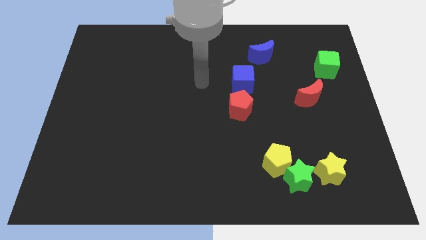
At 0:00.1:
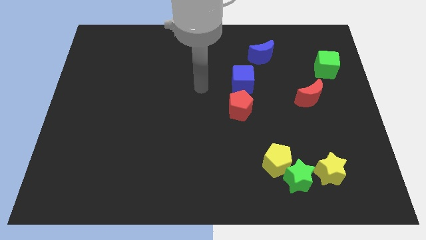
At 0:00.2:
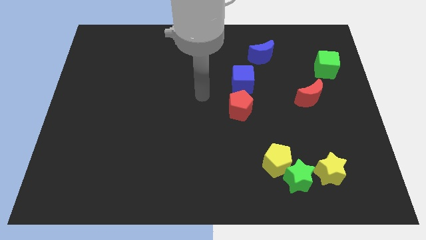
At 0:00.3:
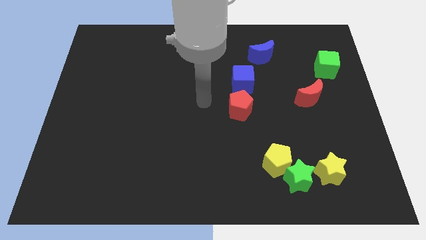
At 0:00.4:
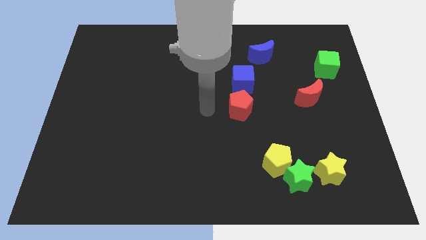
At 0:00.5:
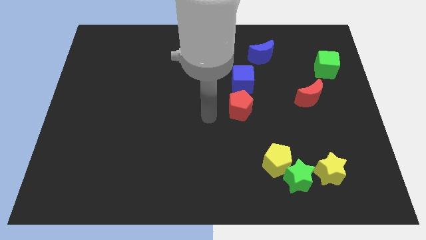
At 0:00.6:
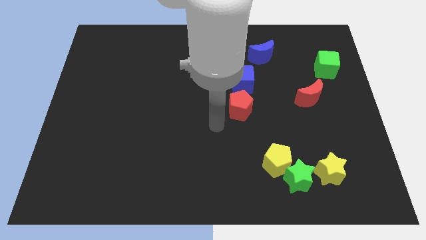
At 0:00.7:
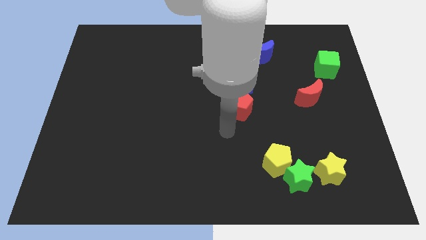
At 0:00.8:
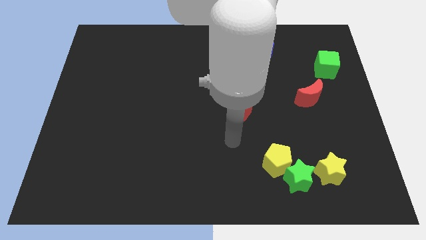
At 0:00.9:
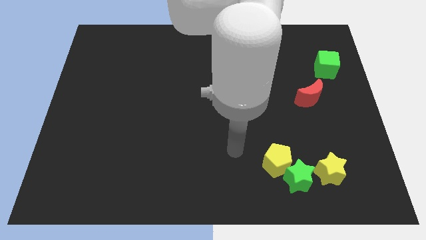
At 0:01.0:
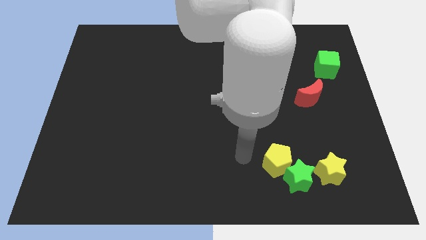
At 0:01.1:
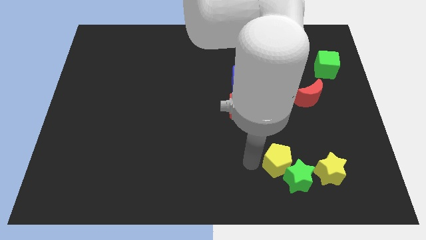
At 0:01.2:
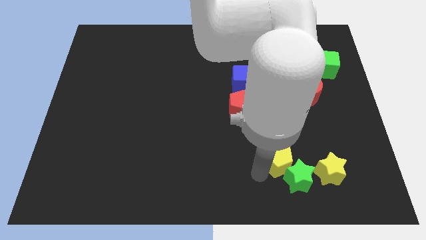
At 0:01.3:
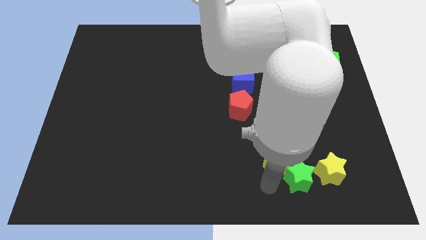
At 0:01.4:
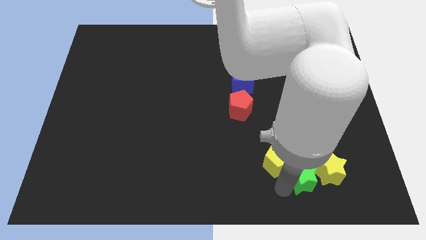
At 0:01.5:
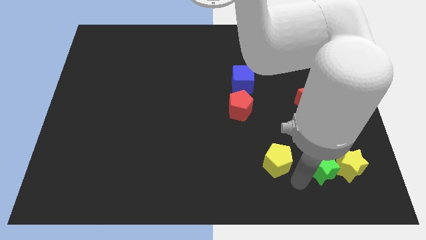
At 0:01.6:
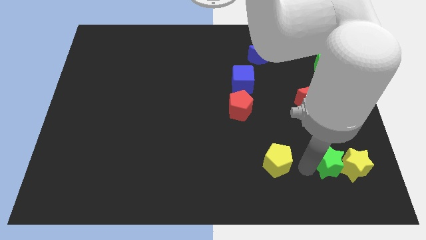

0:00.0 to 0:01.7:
move the yellow pentagon away from the green star

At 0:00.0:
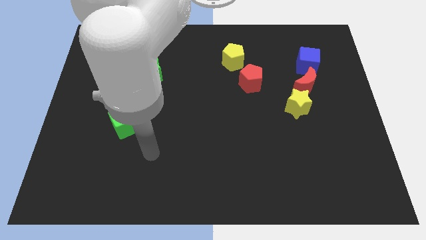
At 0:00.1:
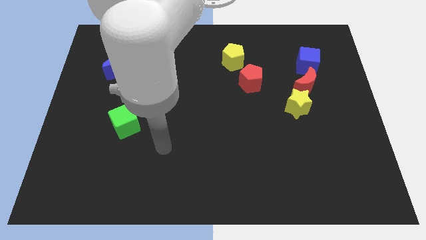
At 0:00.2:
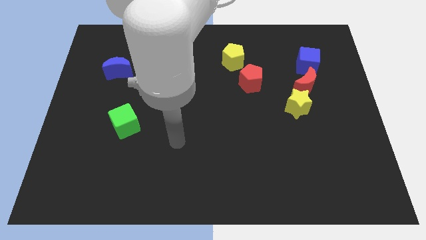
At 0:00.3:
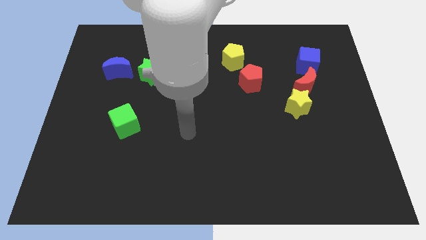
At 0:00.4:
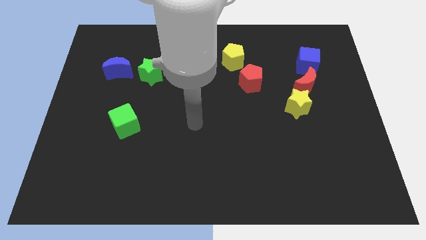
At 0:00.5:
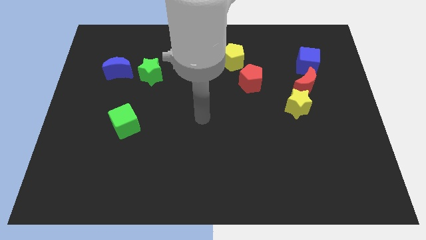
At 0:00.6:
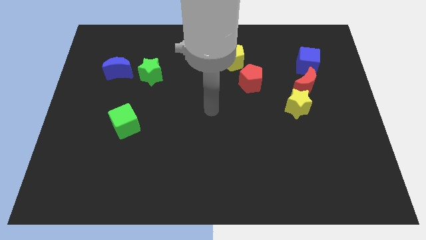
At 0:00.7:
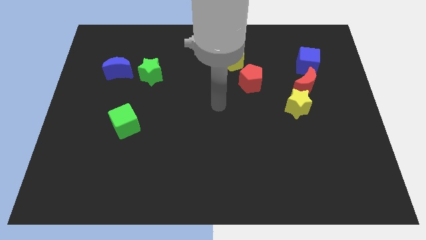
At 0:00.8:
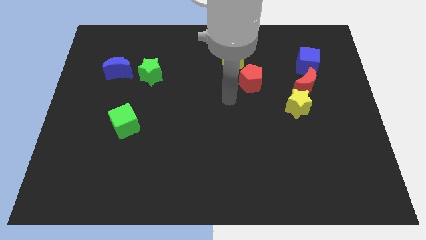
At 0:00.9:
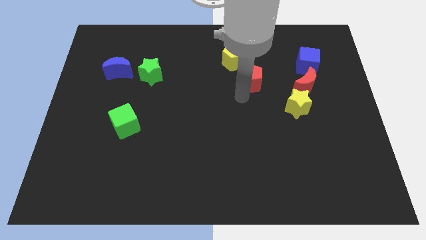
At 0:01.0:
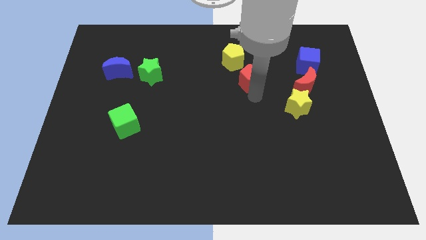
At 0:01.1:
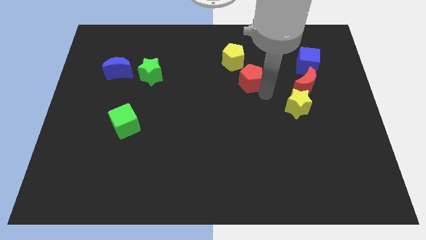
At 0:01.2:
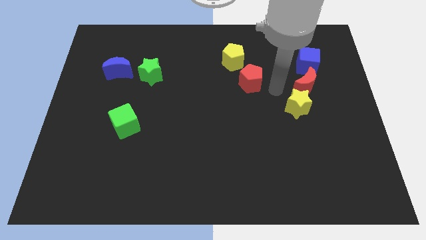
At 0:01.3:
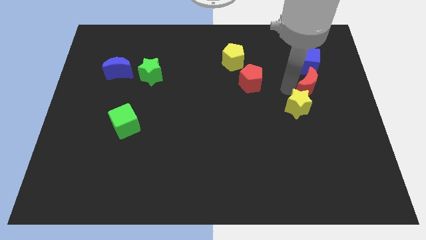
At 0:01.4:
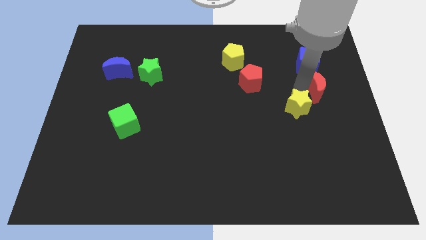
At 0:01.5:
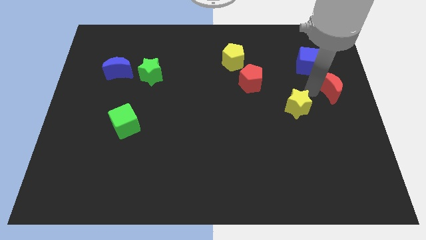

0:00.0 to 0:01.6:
move the yellow star away from the red moon

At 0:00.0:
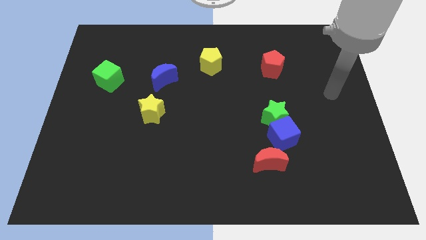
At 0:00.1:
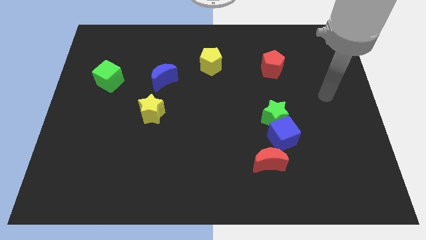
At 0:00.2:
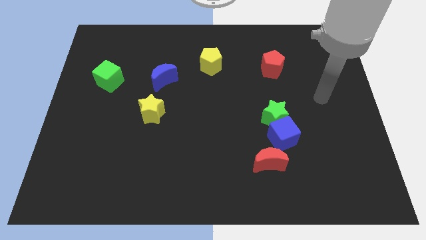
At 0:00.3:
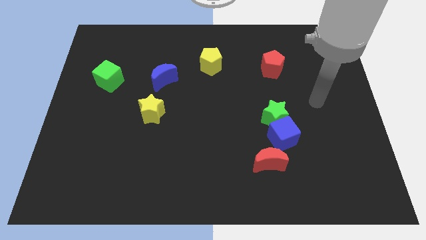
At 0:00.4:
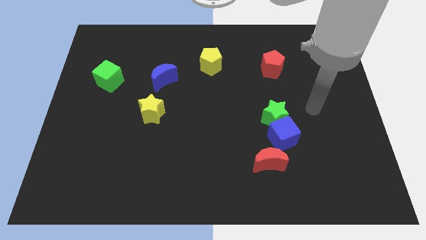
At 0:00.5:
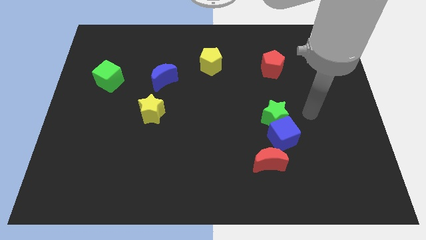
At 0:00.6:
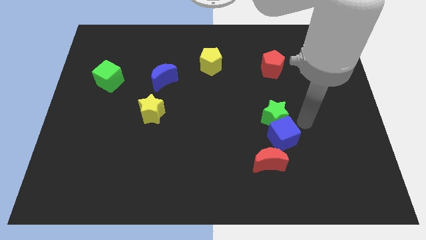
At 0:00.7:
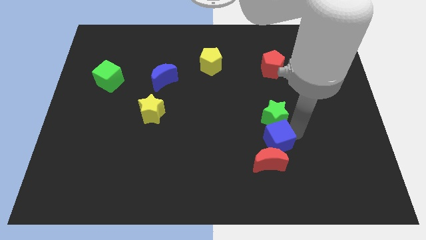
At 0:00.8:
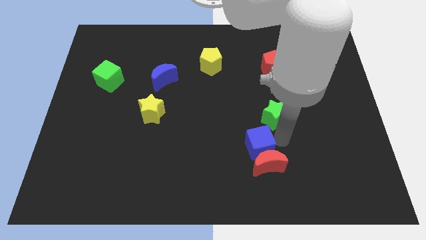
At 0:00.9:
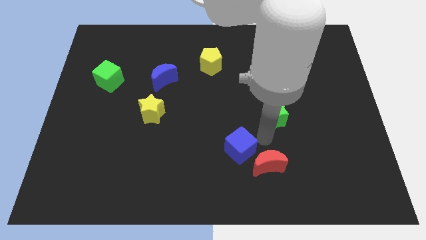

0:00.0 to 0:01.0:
pull the green star apart from the blue cube

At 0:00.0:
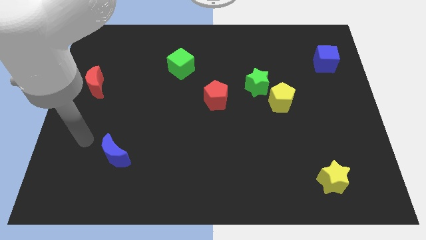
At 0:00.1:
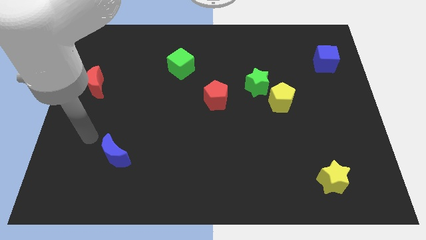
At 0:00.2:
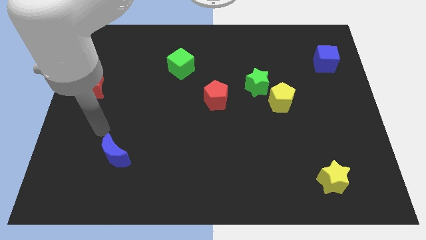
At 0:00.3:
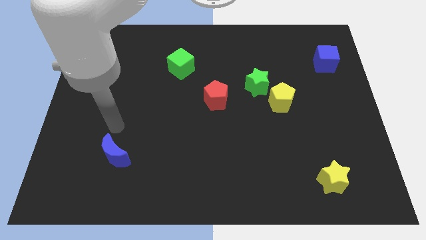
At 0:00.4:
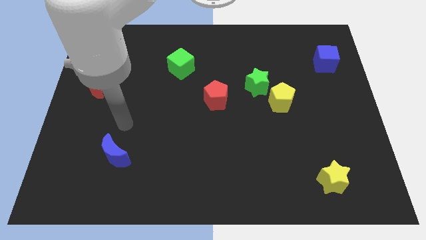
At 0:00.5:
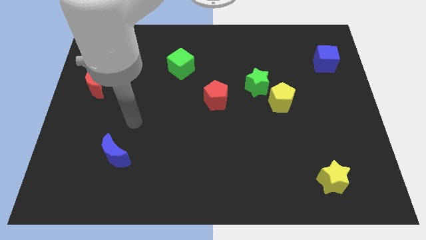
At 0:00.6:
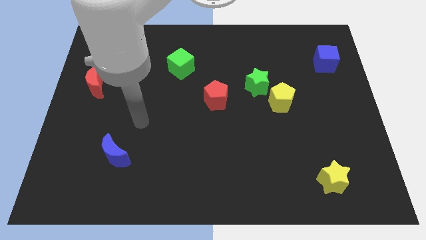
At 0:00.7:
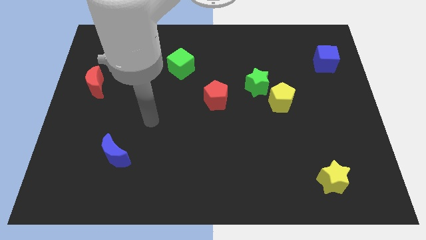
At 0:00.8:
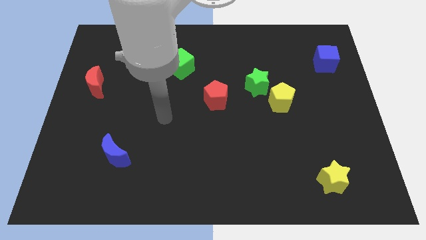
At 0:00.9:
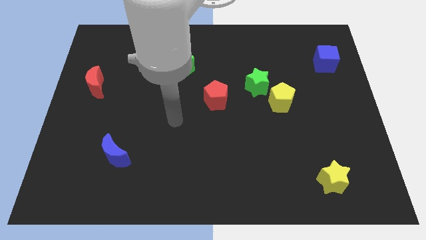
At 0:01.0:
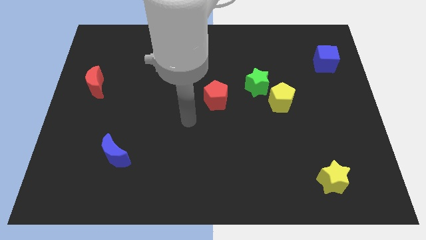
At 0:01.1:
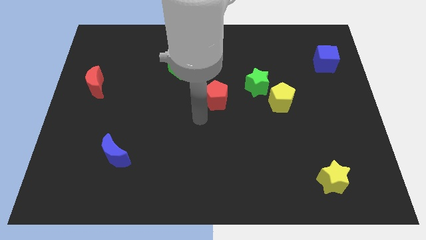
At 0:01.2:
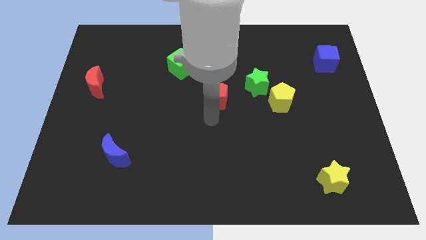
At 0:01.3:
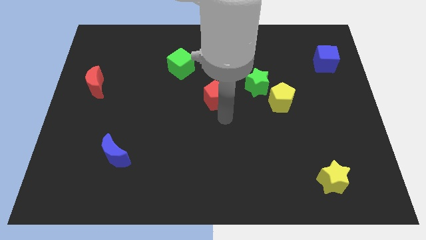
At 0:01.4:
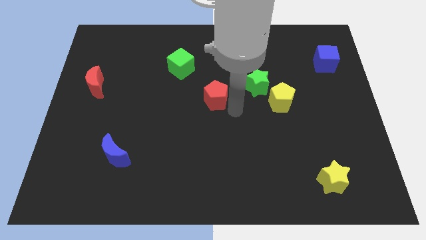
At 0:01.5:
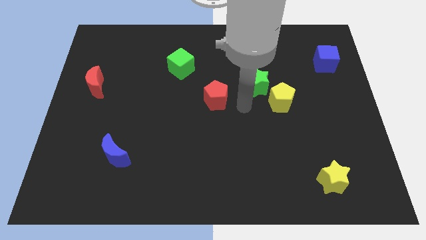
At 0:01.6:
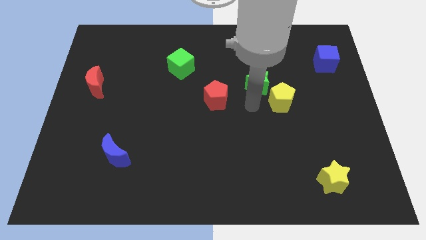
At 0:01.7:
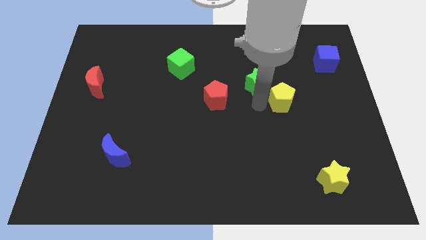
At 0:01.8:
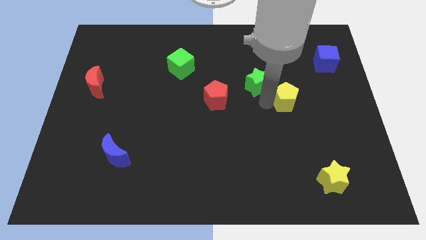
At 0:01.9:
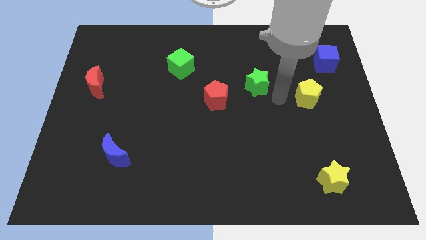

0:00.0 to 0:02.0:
pull the green star apart from the yellow pentagon

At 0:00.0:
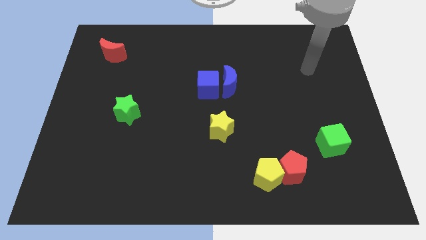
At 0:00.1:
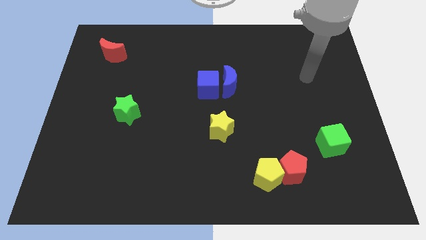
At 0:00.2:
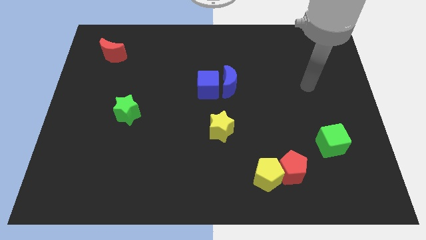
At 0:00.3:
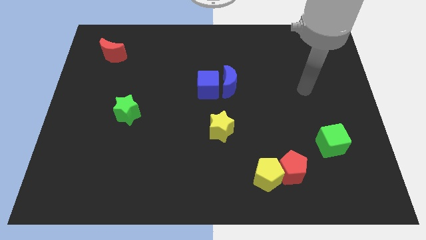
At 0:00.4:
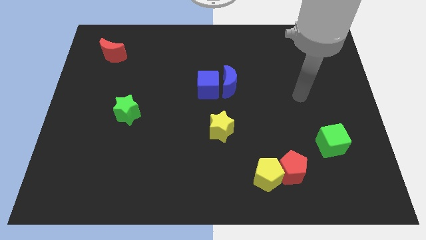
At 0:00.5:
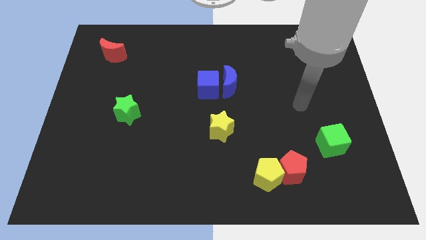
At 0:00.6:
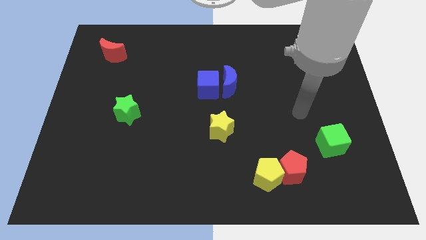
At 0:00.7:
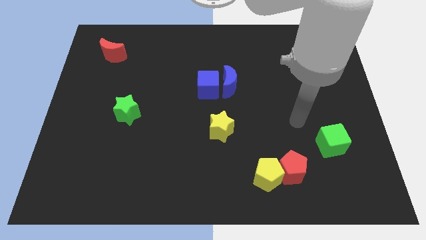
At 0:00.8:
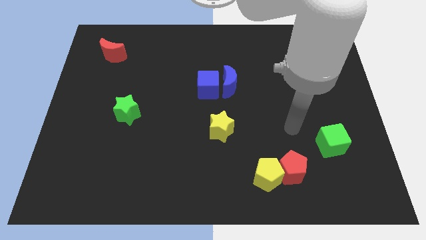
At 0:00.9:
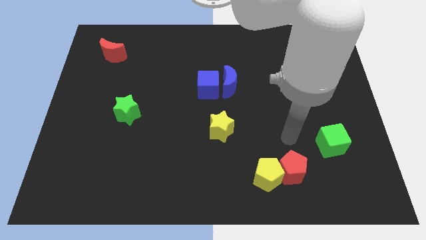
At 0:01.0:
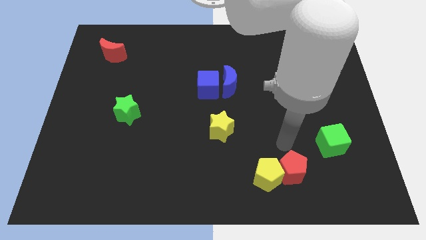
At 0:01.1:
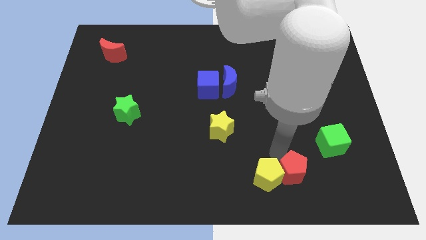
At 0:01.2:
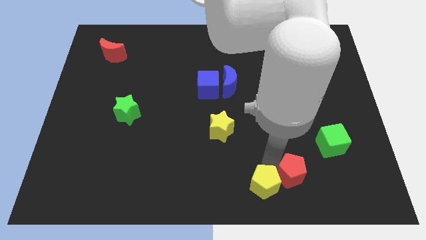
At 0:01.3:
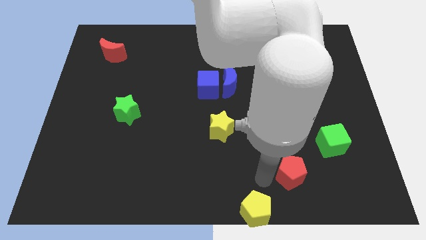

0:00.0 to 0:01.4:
separate the red pentagon from the yellow pentagon

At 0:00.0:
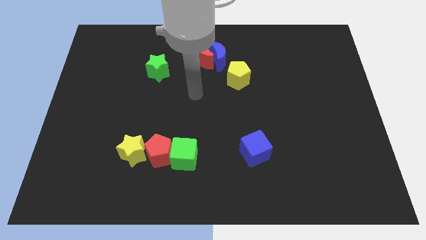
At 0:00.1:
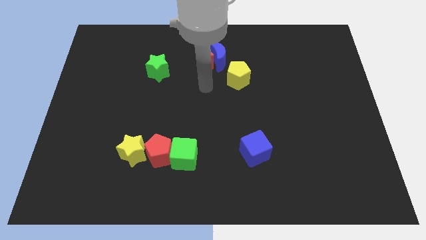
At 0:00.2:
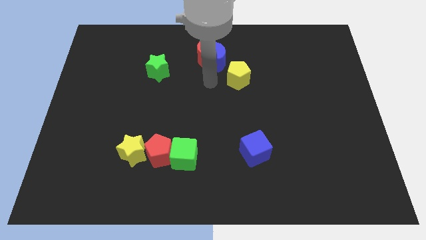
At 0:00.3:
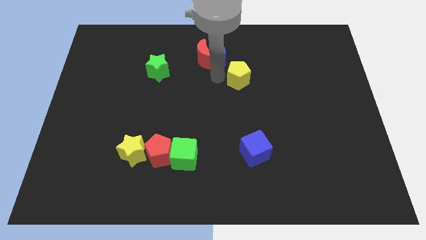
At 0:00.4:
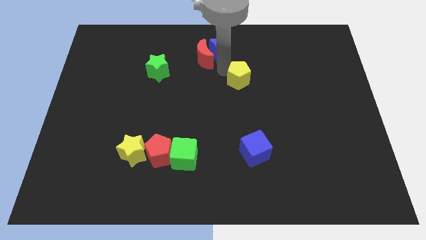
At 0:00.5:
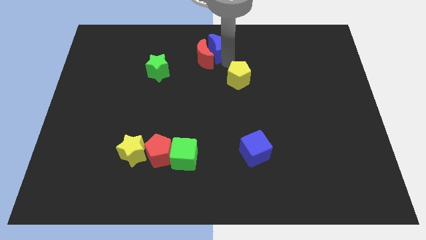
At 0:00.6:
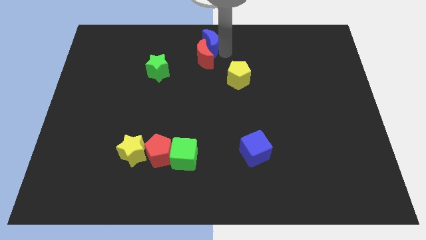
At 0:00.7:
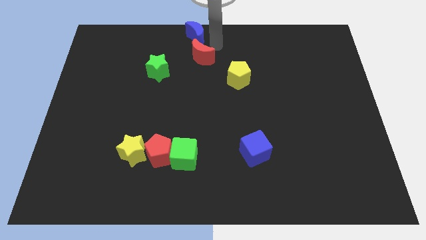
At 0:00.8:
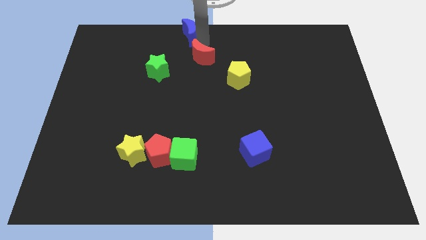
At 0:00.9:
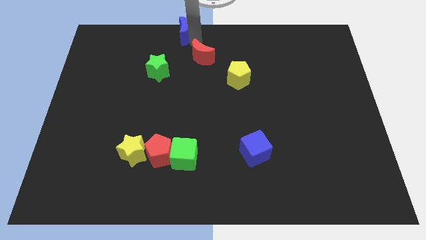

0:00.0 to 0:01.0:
separate the red moon from the blue moon

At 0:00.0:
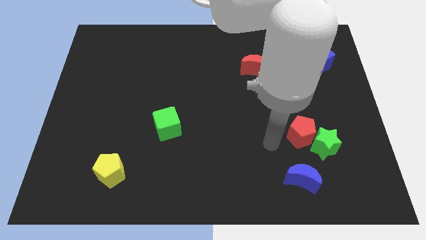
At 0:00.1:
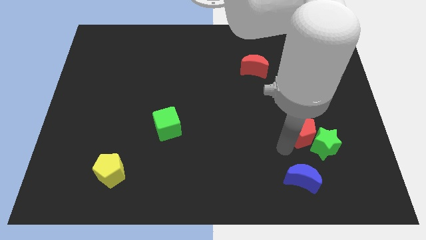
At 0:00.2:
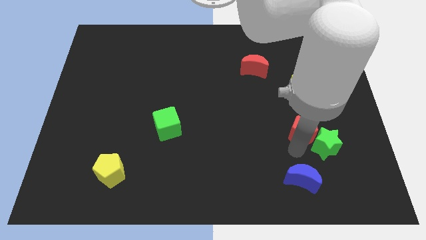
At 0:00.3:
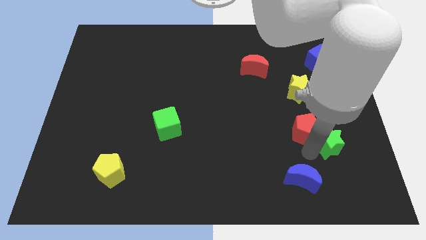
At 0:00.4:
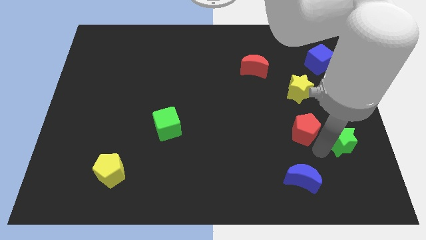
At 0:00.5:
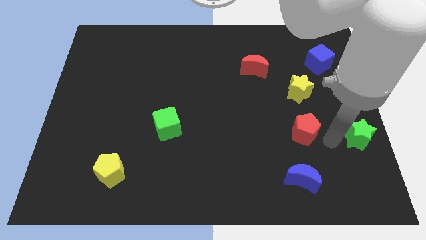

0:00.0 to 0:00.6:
move the red pentagon away from the green star
